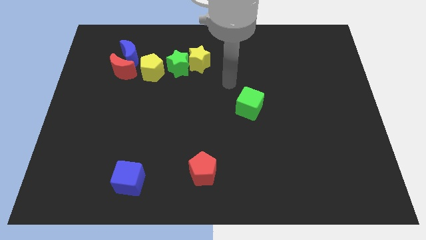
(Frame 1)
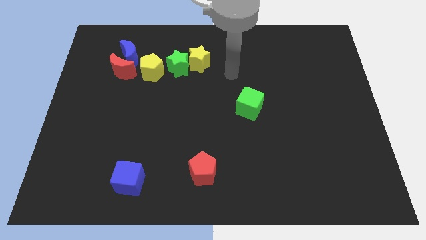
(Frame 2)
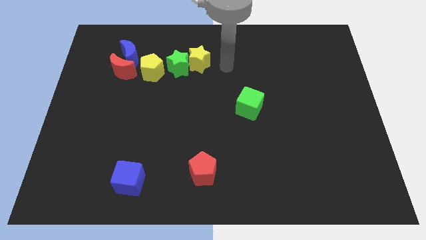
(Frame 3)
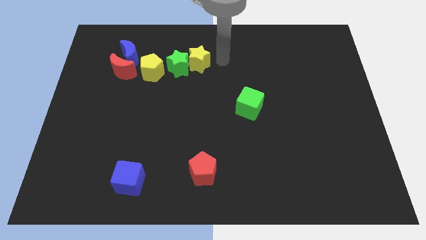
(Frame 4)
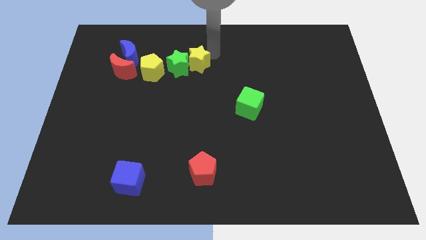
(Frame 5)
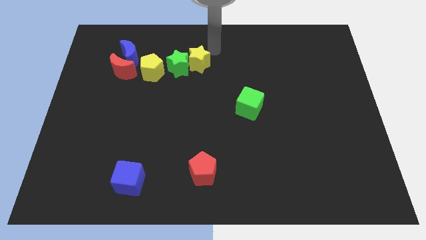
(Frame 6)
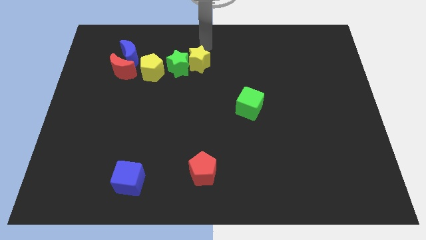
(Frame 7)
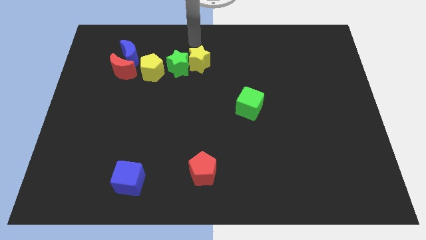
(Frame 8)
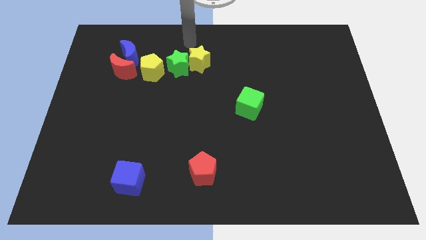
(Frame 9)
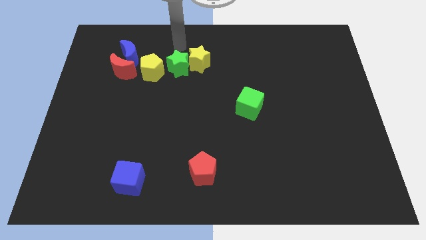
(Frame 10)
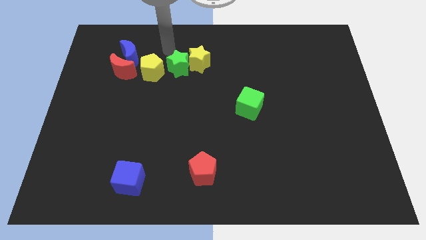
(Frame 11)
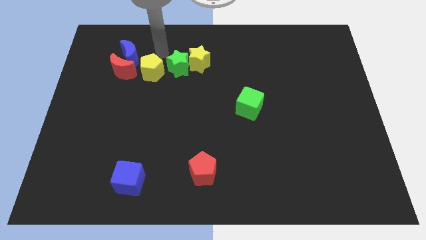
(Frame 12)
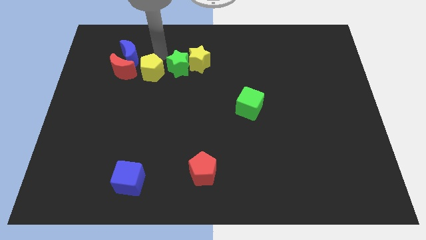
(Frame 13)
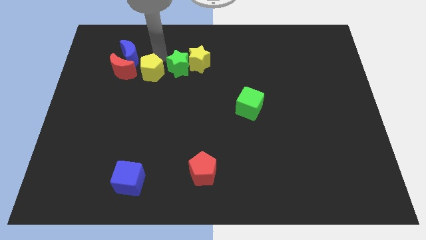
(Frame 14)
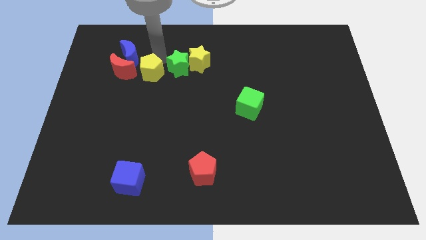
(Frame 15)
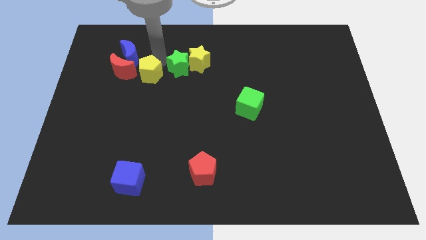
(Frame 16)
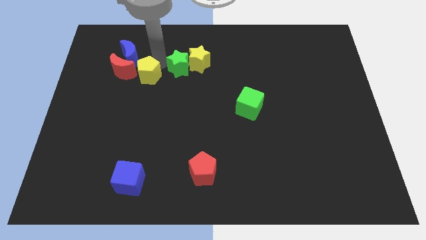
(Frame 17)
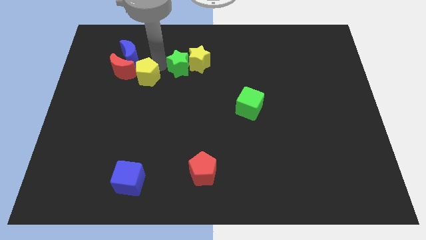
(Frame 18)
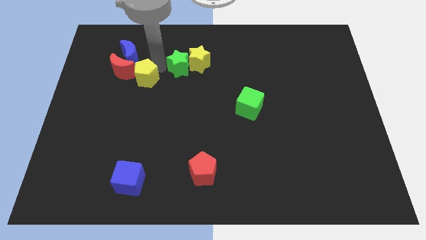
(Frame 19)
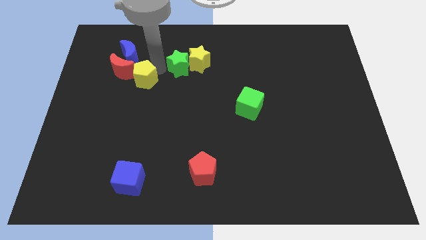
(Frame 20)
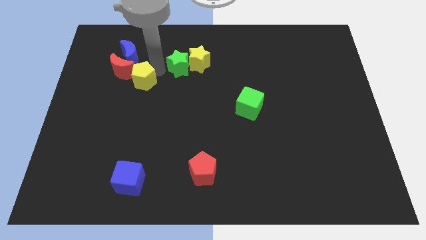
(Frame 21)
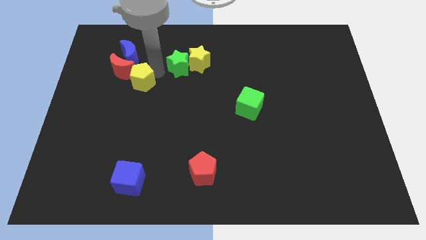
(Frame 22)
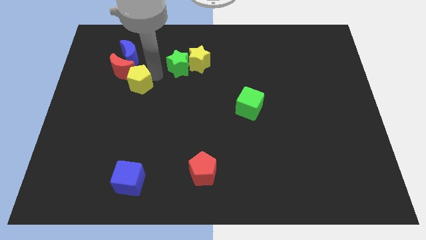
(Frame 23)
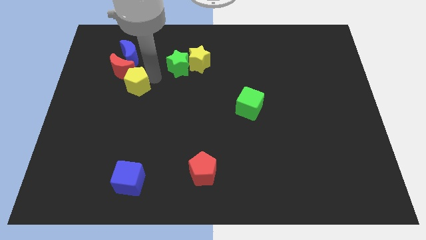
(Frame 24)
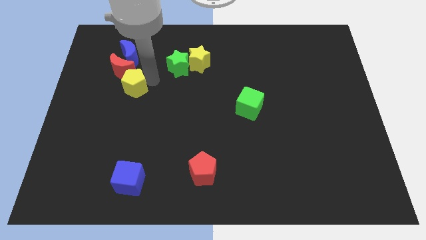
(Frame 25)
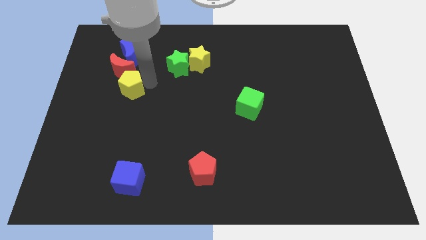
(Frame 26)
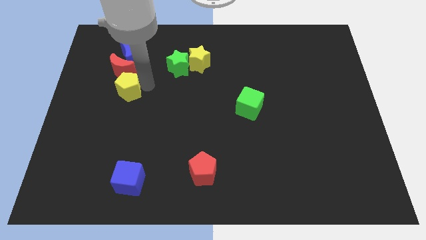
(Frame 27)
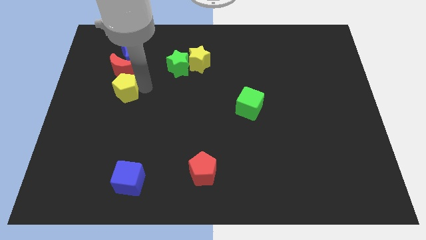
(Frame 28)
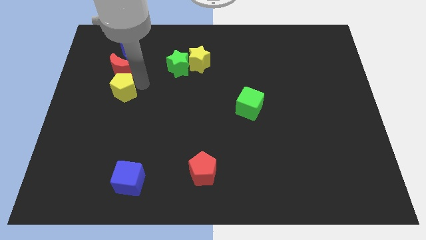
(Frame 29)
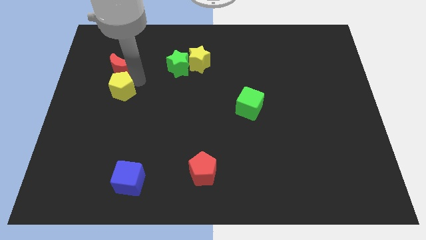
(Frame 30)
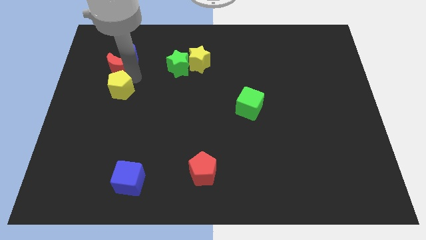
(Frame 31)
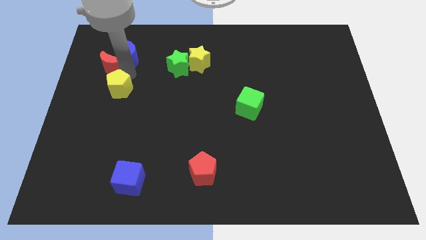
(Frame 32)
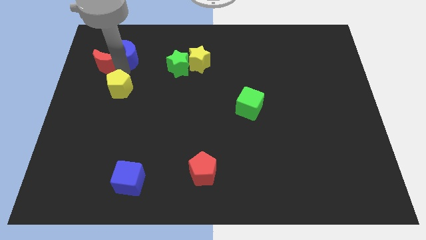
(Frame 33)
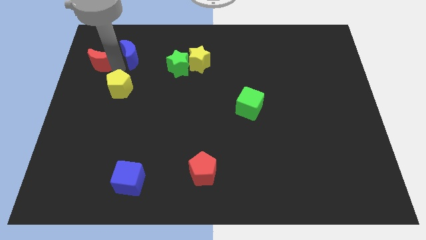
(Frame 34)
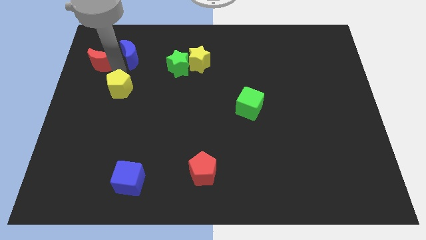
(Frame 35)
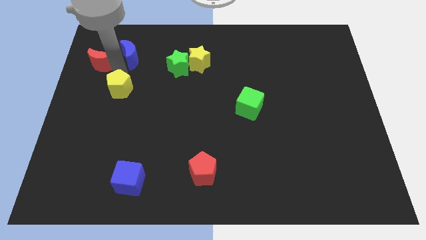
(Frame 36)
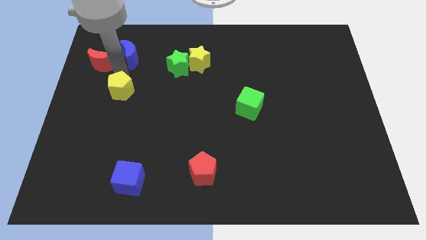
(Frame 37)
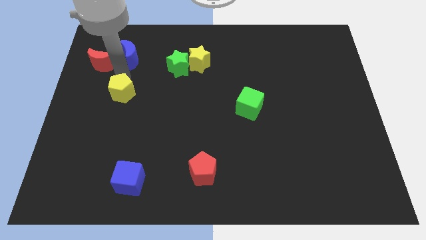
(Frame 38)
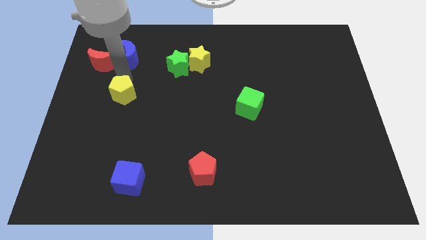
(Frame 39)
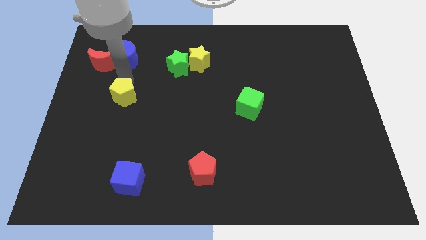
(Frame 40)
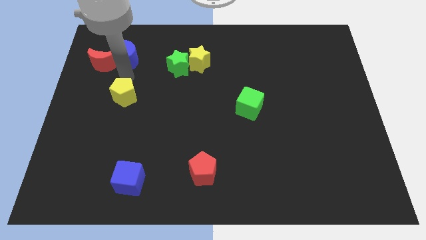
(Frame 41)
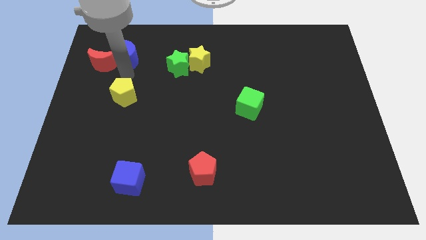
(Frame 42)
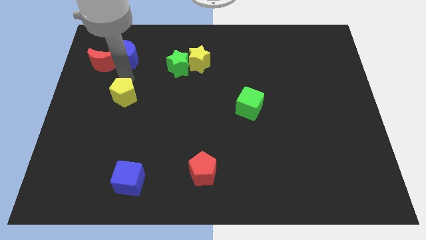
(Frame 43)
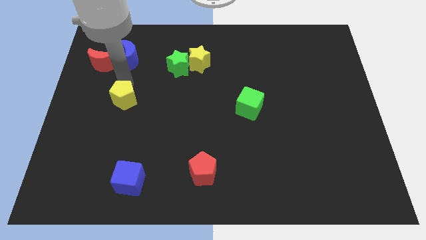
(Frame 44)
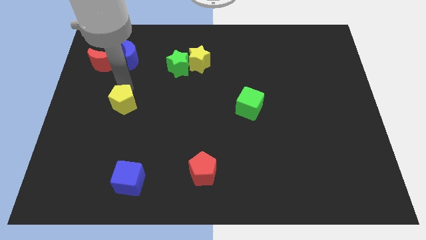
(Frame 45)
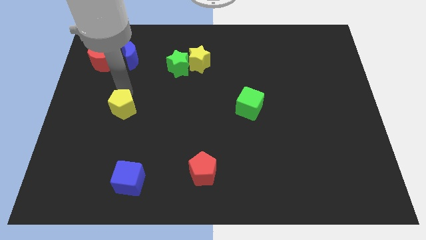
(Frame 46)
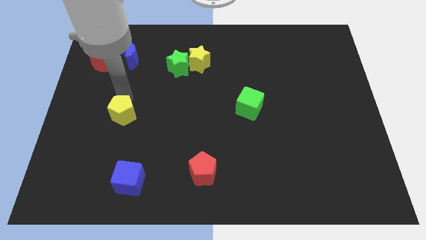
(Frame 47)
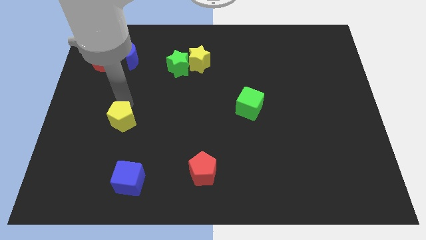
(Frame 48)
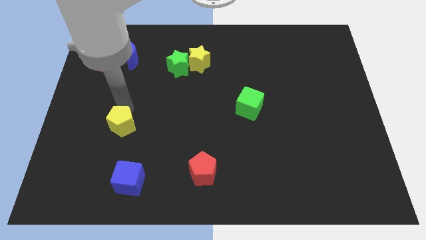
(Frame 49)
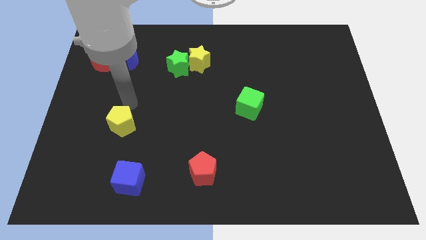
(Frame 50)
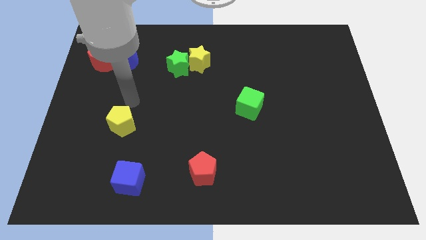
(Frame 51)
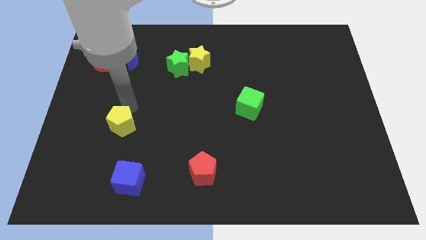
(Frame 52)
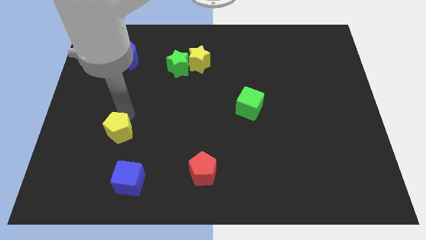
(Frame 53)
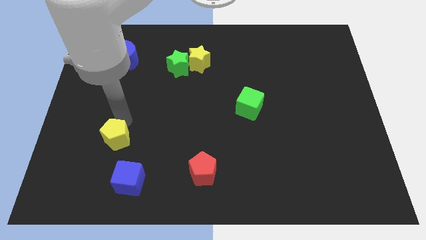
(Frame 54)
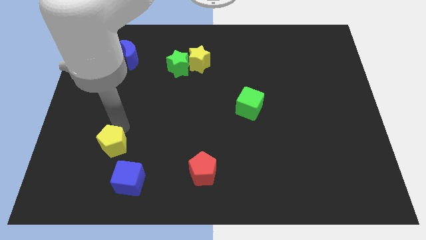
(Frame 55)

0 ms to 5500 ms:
slide the yellow pentagon diagonally up and to the left of the blue cube

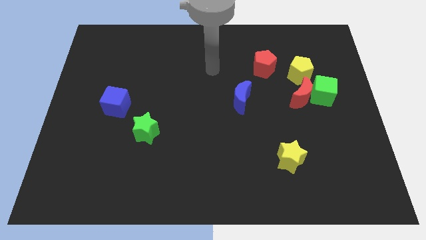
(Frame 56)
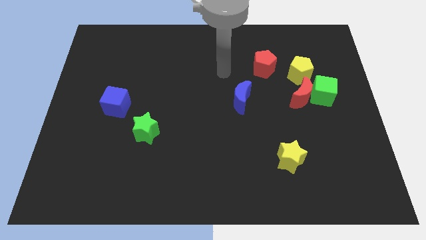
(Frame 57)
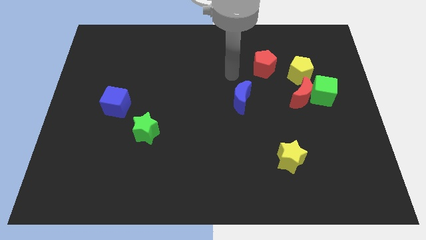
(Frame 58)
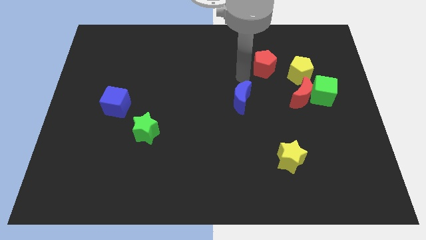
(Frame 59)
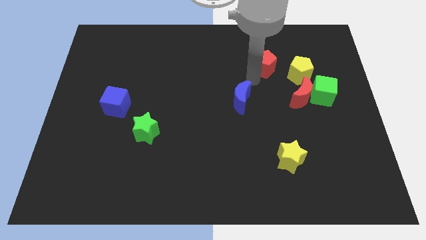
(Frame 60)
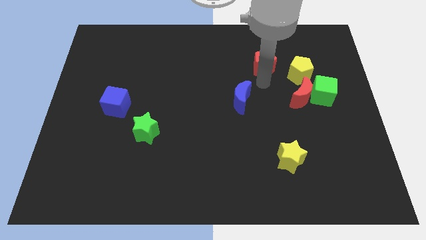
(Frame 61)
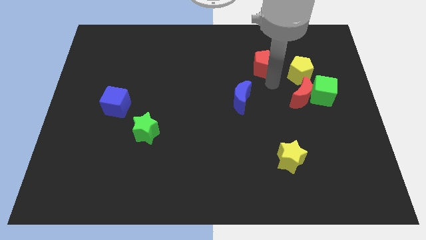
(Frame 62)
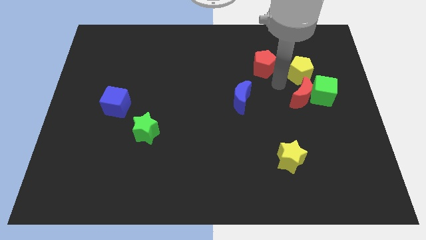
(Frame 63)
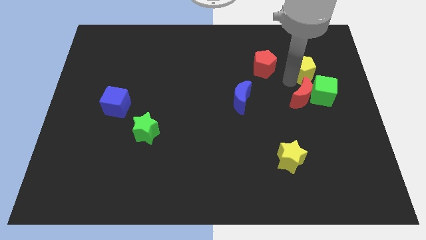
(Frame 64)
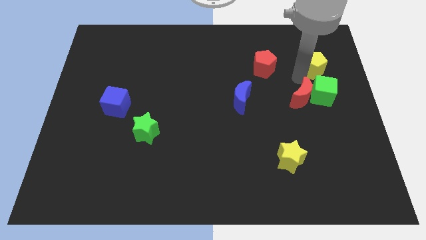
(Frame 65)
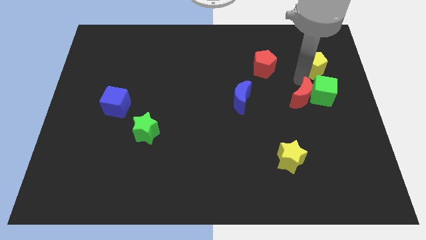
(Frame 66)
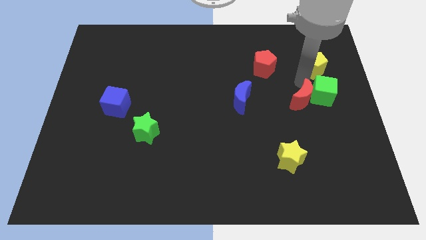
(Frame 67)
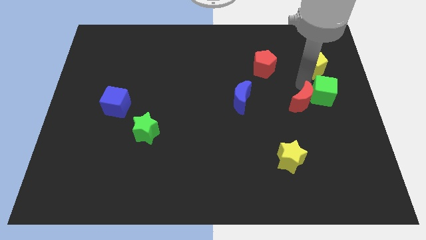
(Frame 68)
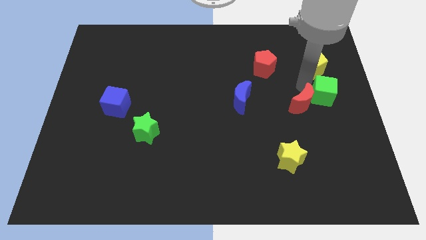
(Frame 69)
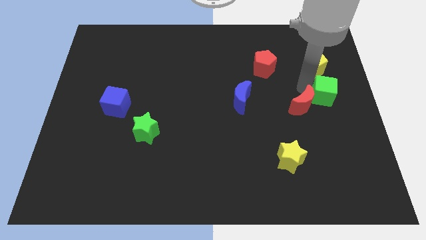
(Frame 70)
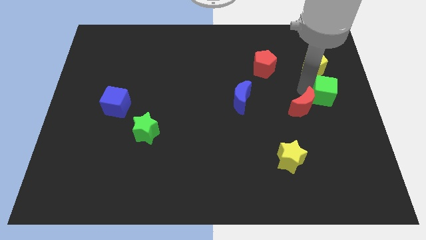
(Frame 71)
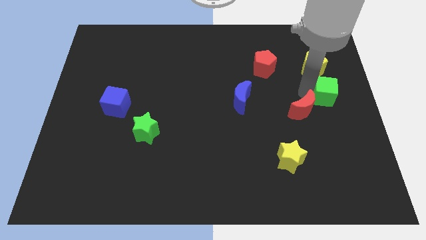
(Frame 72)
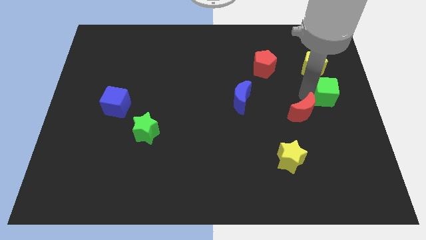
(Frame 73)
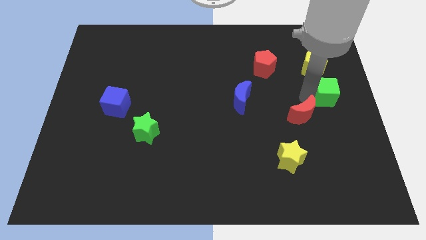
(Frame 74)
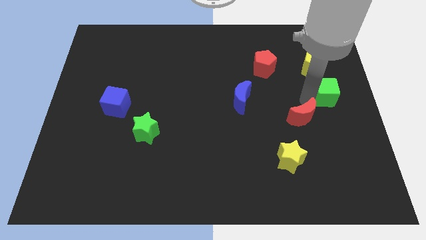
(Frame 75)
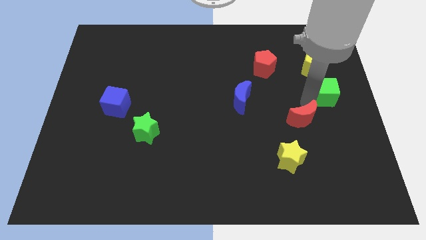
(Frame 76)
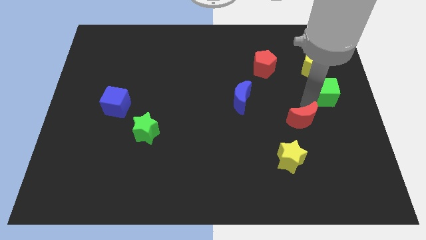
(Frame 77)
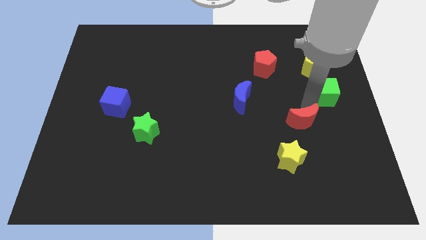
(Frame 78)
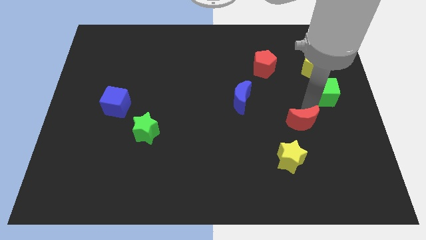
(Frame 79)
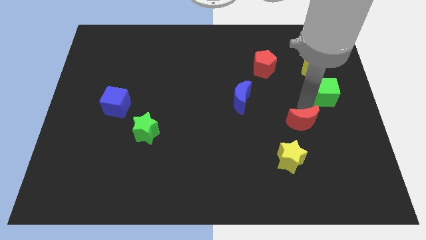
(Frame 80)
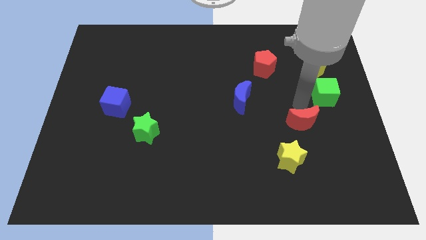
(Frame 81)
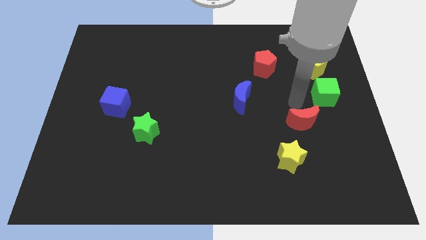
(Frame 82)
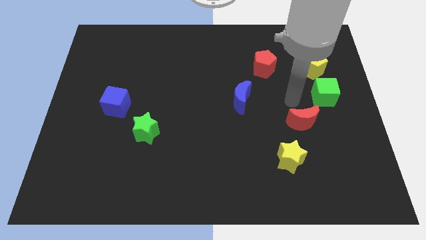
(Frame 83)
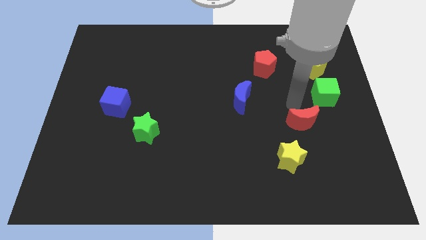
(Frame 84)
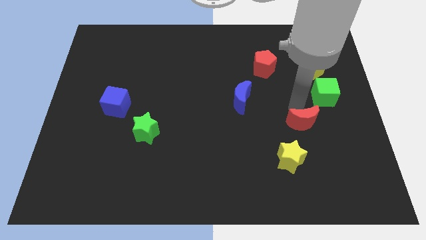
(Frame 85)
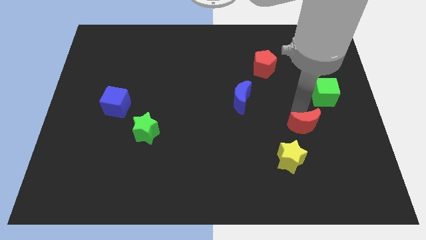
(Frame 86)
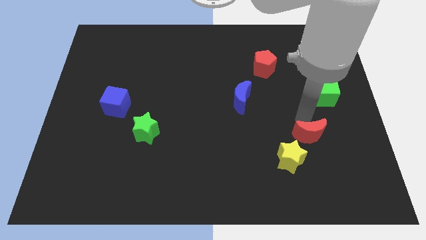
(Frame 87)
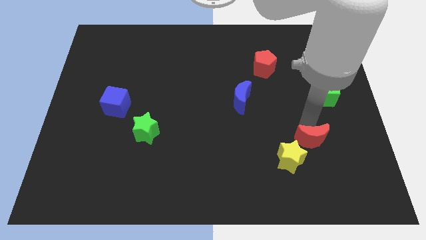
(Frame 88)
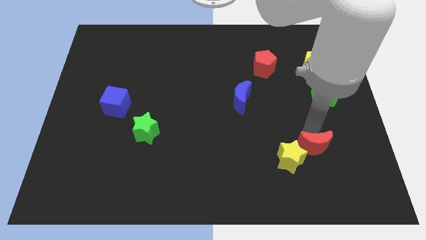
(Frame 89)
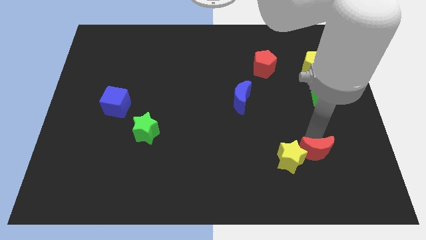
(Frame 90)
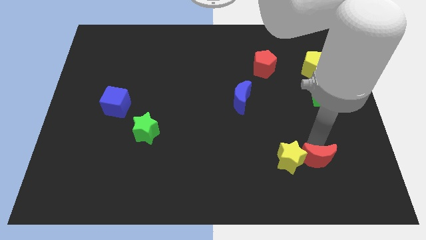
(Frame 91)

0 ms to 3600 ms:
slide the red moon diagonally down and to the right of the yellow star
